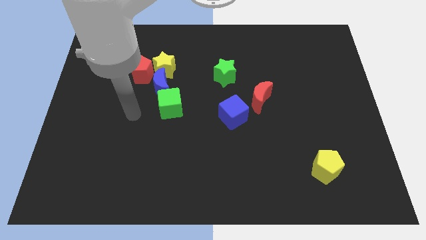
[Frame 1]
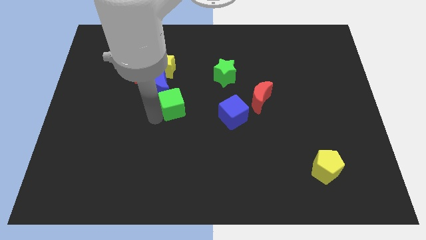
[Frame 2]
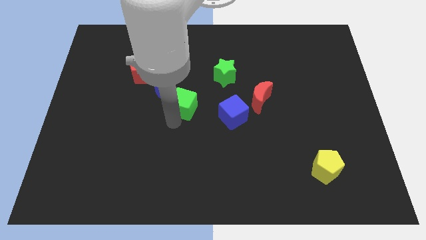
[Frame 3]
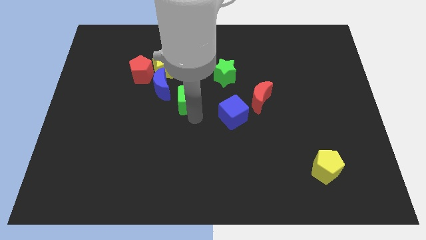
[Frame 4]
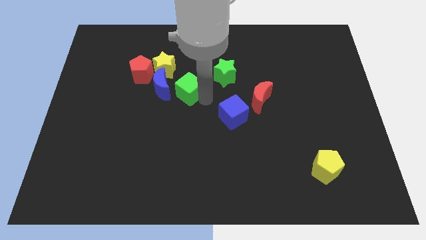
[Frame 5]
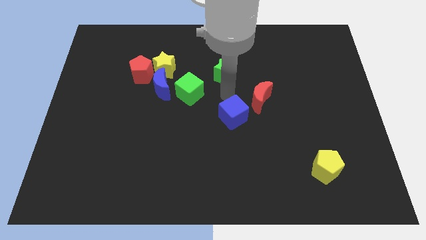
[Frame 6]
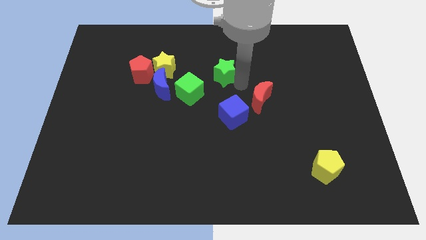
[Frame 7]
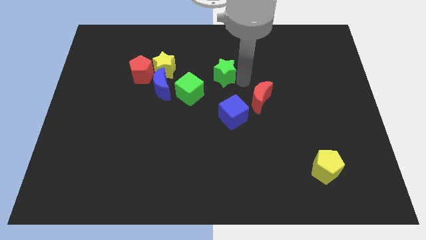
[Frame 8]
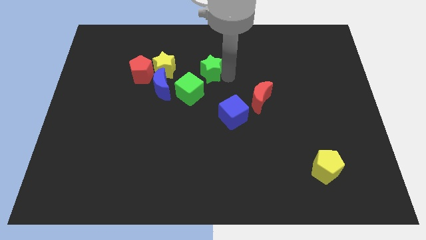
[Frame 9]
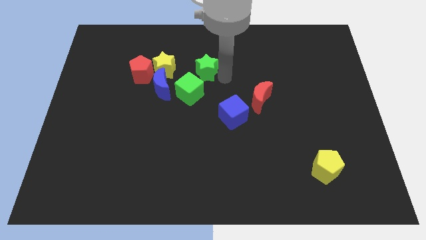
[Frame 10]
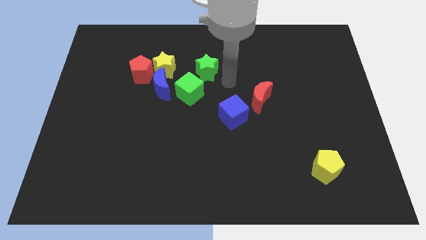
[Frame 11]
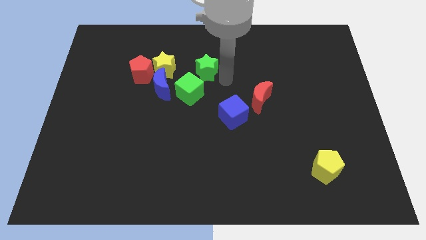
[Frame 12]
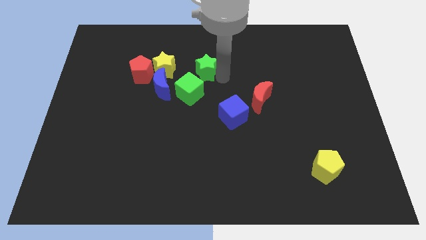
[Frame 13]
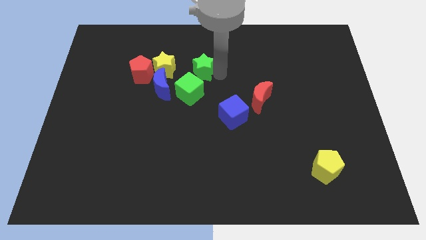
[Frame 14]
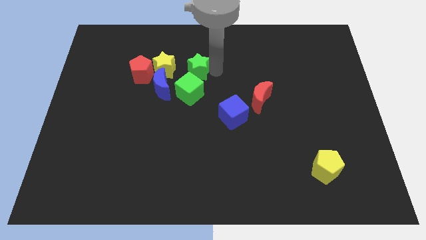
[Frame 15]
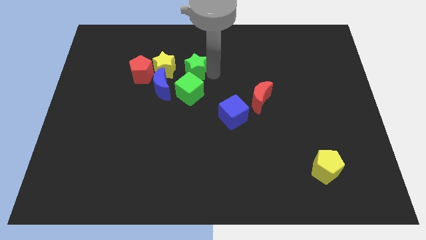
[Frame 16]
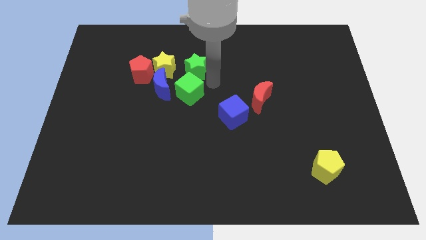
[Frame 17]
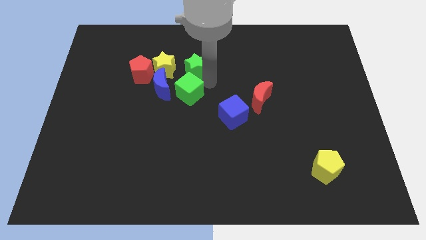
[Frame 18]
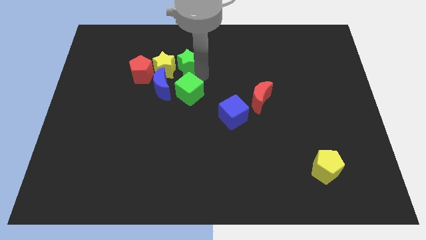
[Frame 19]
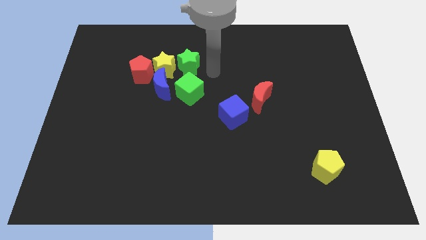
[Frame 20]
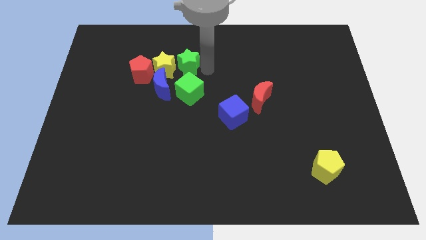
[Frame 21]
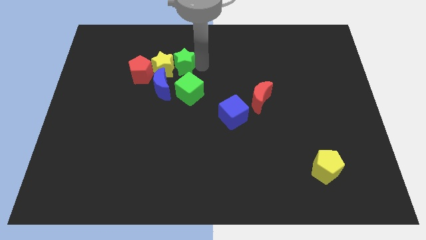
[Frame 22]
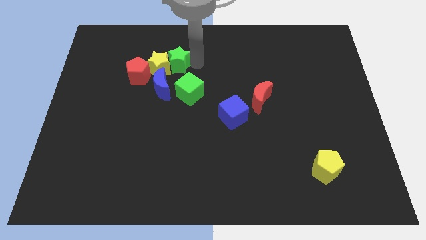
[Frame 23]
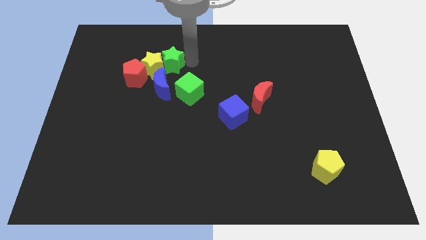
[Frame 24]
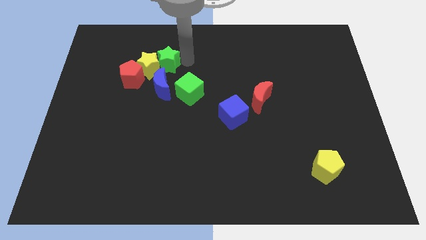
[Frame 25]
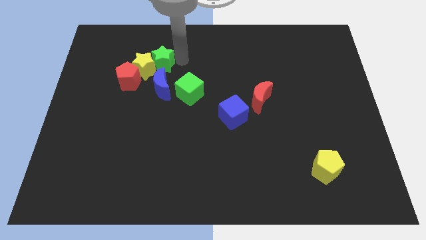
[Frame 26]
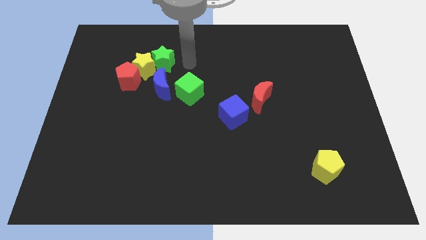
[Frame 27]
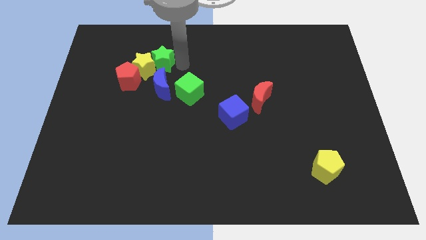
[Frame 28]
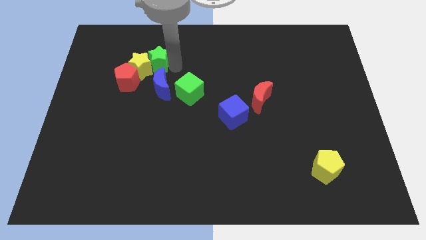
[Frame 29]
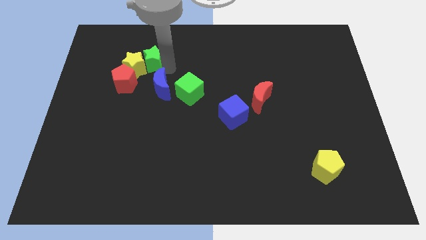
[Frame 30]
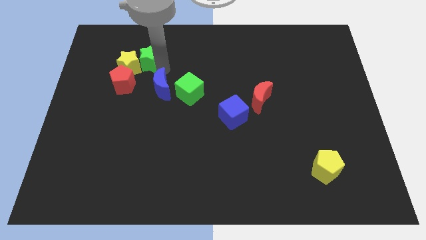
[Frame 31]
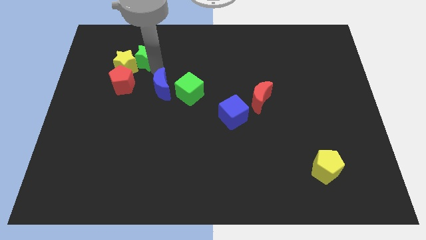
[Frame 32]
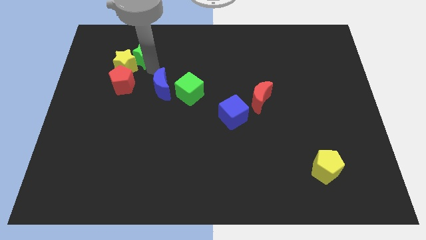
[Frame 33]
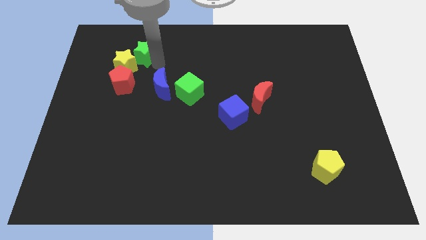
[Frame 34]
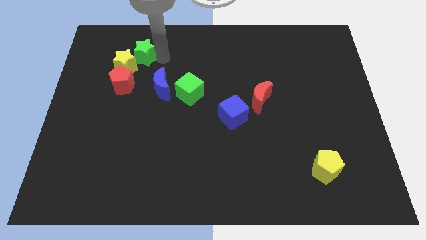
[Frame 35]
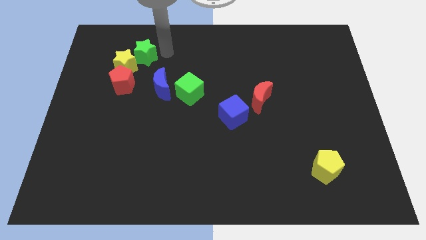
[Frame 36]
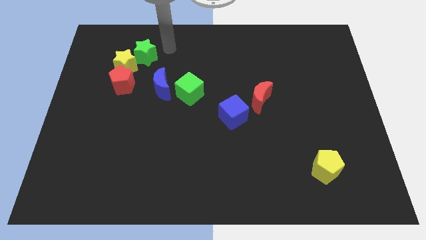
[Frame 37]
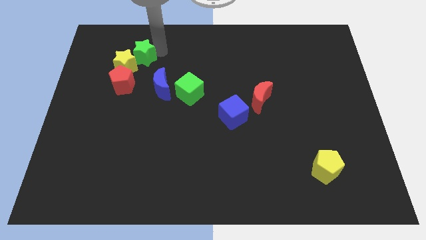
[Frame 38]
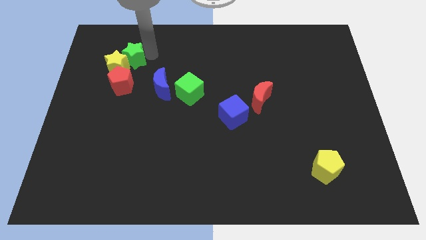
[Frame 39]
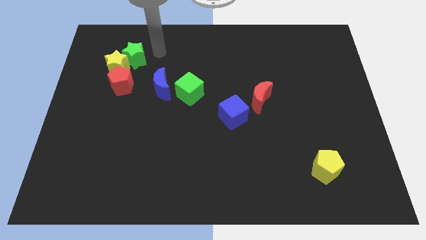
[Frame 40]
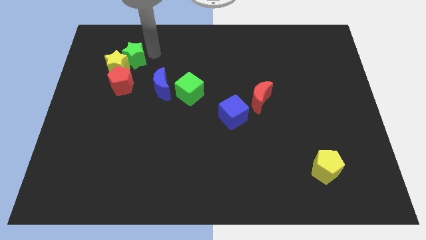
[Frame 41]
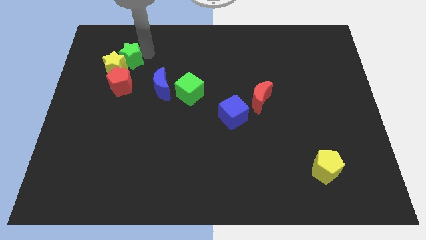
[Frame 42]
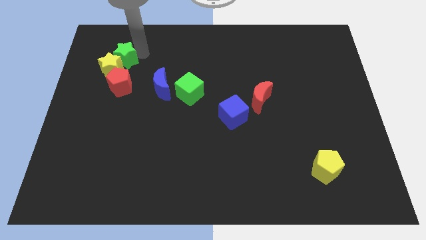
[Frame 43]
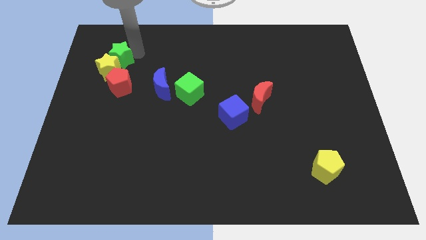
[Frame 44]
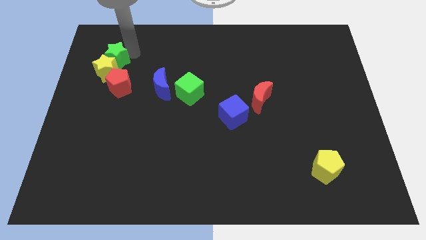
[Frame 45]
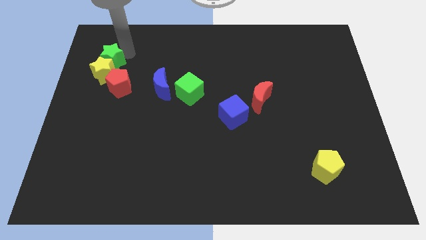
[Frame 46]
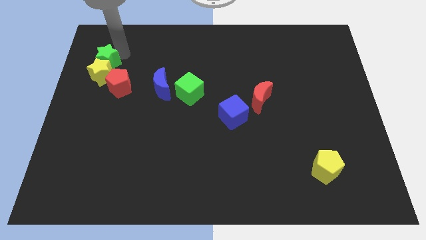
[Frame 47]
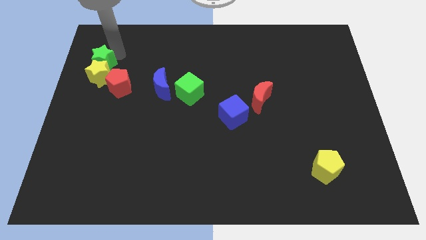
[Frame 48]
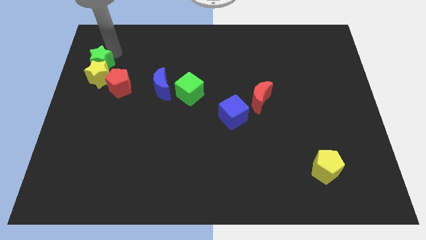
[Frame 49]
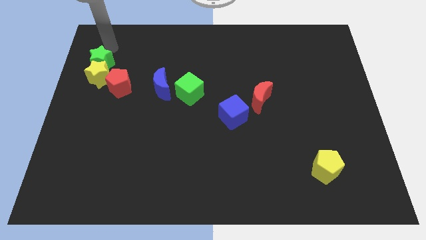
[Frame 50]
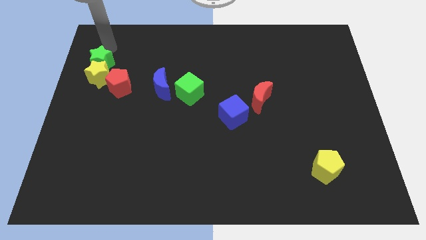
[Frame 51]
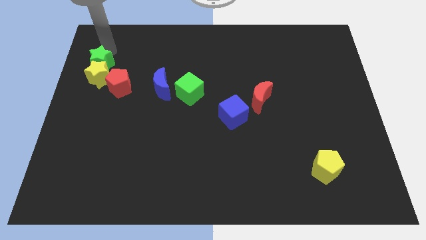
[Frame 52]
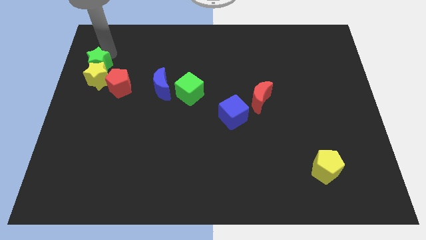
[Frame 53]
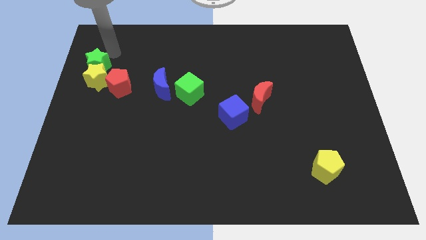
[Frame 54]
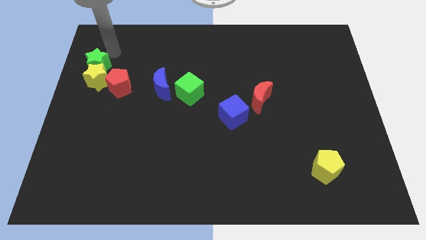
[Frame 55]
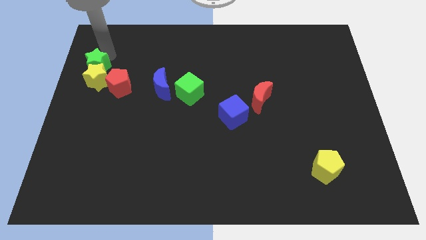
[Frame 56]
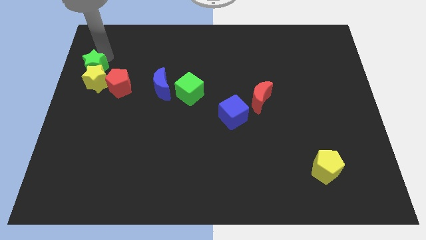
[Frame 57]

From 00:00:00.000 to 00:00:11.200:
slide the green star to the left side of the board

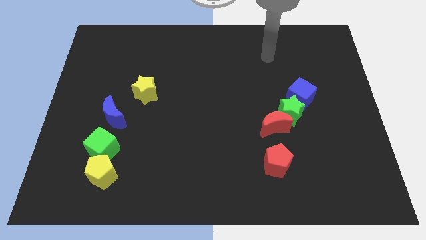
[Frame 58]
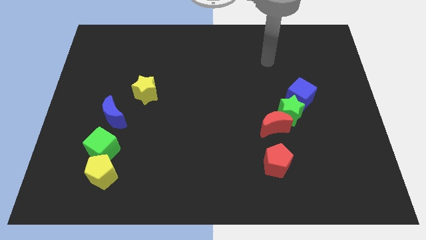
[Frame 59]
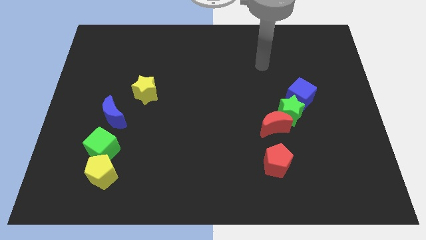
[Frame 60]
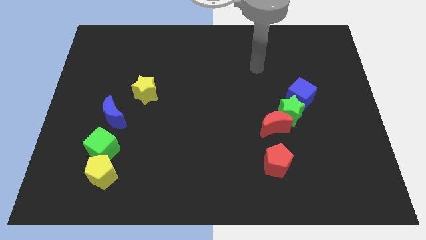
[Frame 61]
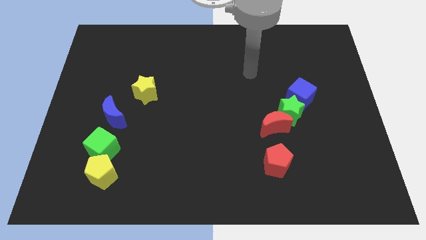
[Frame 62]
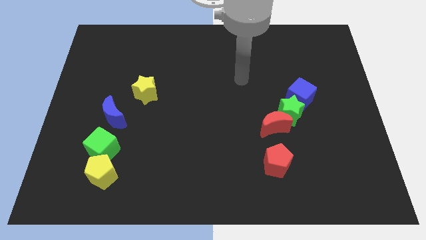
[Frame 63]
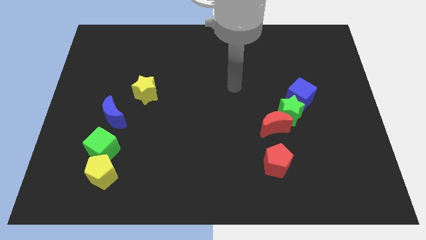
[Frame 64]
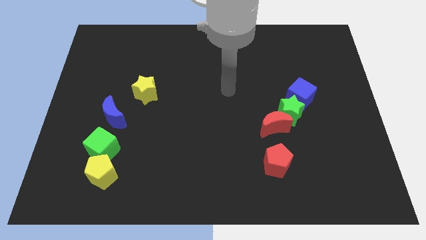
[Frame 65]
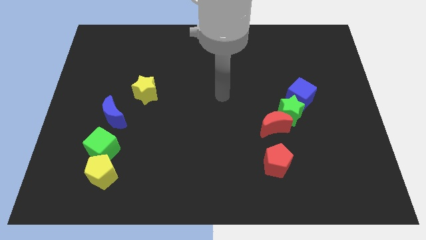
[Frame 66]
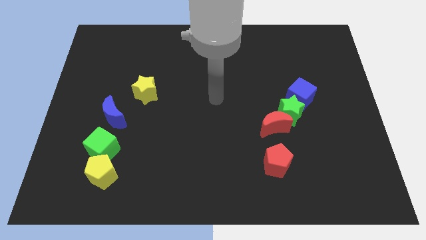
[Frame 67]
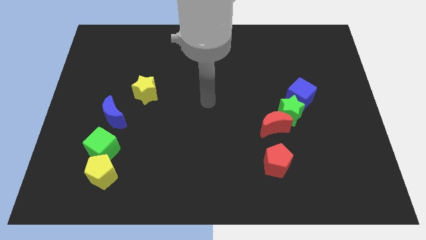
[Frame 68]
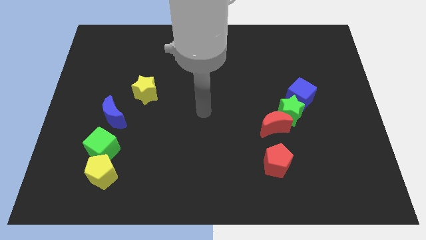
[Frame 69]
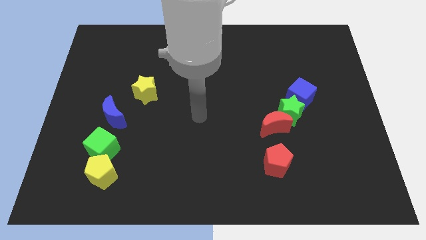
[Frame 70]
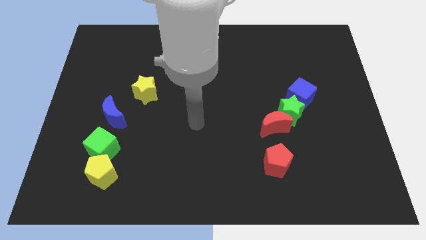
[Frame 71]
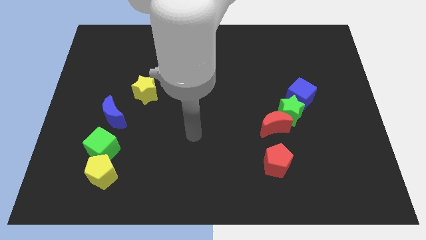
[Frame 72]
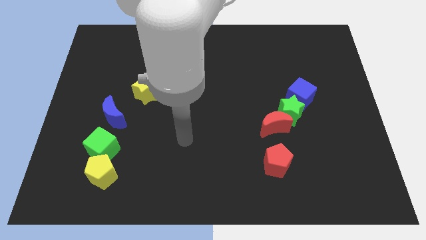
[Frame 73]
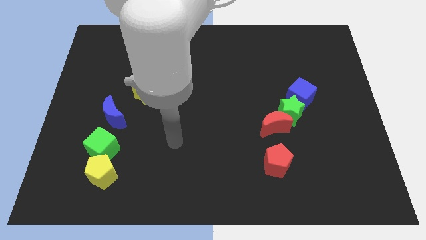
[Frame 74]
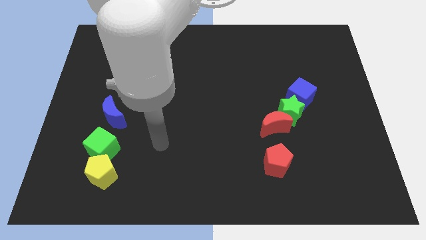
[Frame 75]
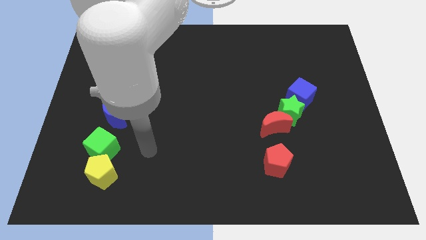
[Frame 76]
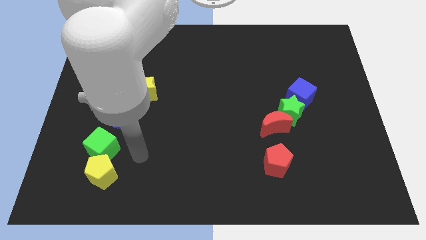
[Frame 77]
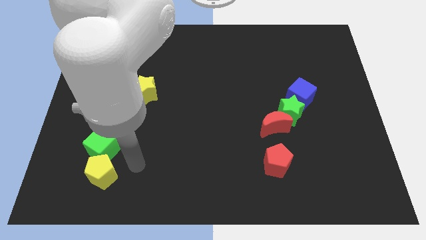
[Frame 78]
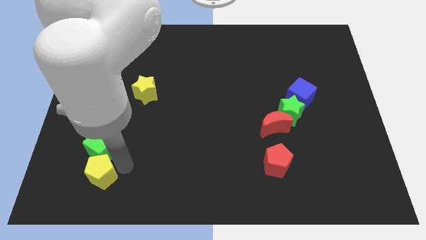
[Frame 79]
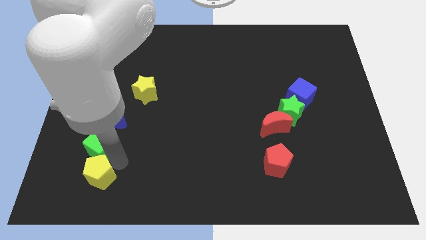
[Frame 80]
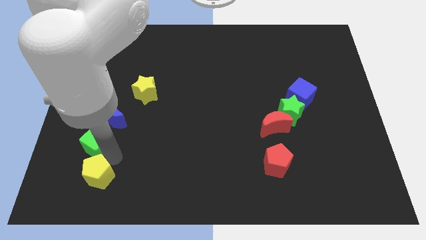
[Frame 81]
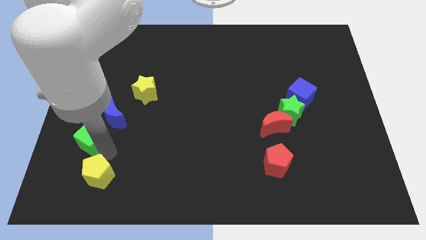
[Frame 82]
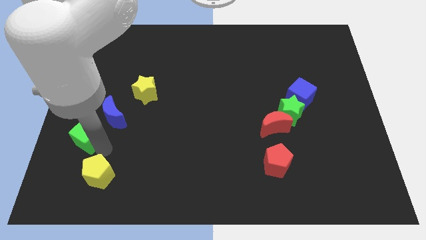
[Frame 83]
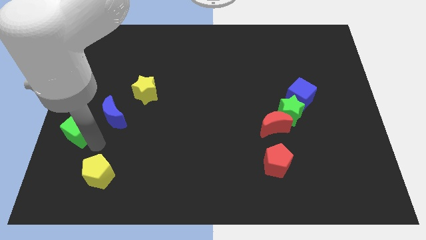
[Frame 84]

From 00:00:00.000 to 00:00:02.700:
push the green cube to the left side of the board
